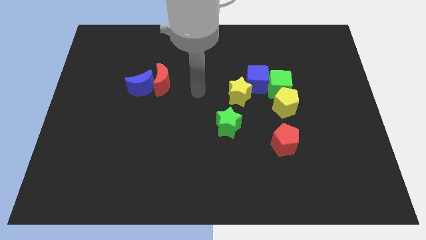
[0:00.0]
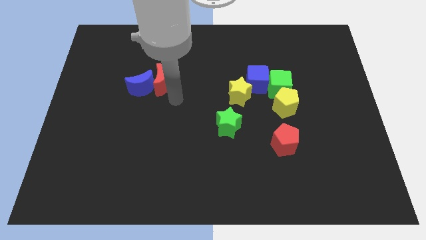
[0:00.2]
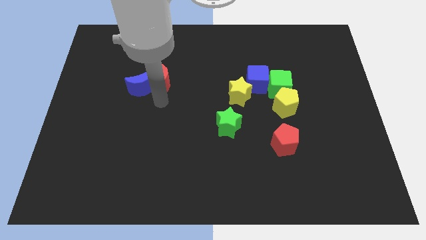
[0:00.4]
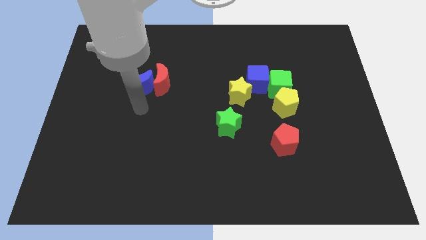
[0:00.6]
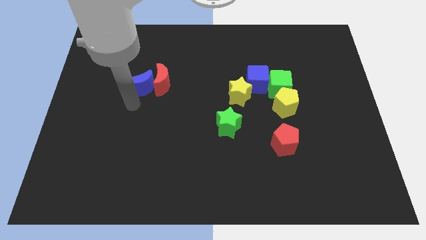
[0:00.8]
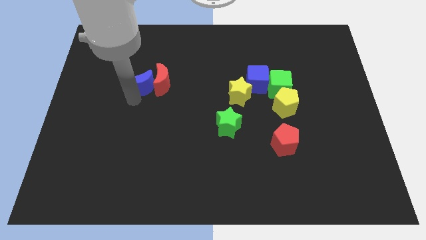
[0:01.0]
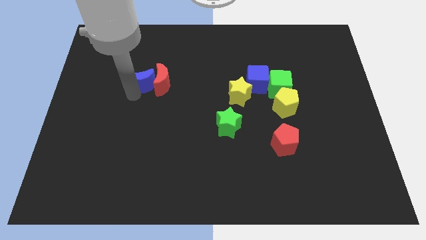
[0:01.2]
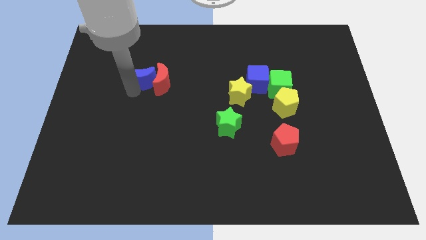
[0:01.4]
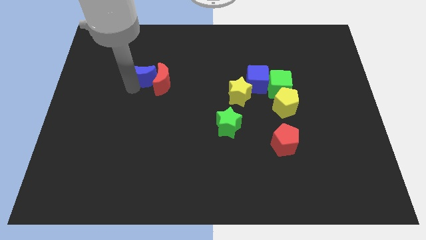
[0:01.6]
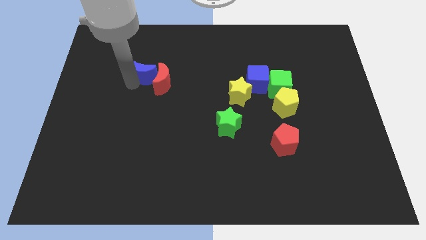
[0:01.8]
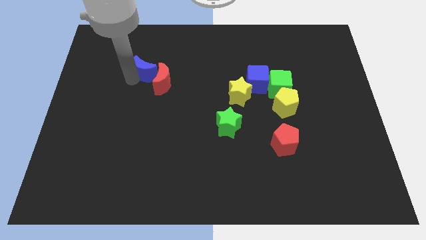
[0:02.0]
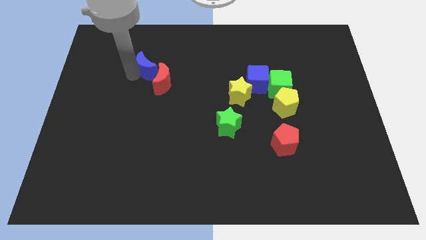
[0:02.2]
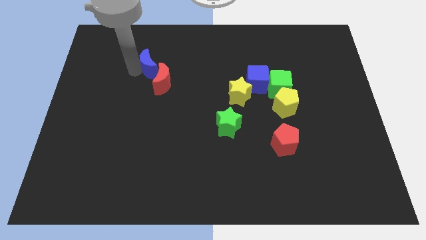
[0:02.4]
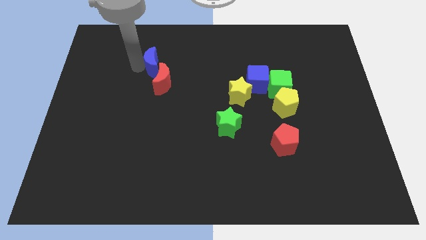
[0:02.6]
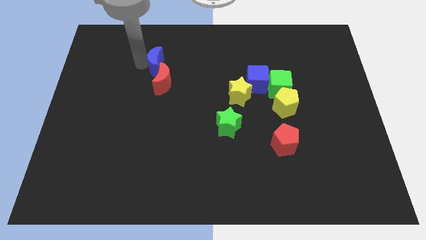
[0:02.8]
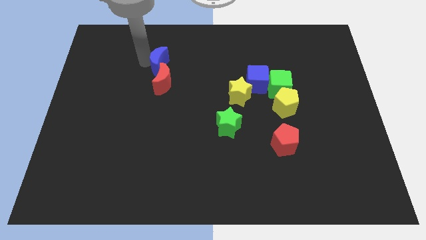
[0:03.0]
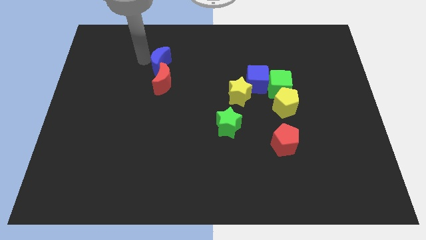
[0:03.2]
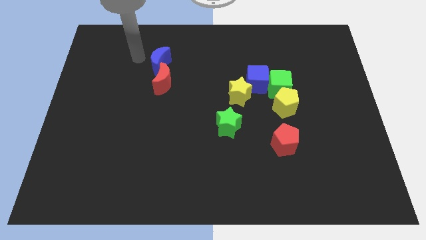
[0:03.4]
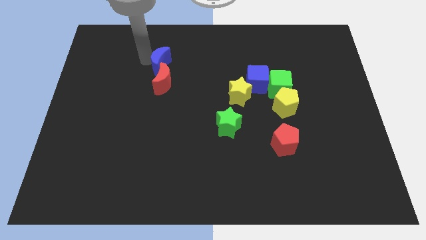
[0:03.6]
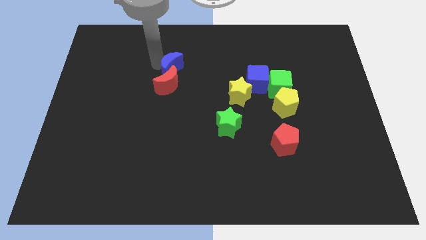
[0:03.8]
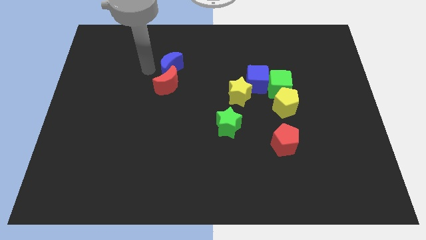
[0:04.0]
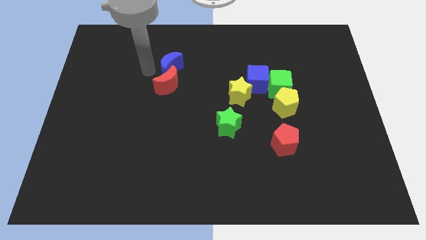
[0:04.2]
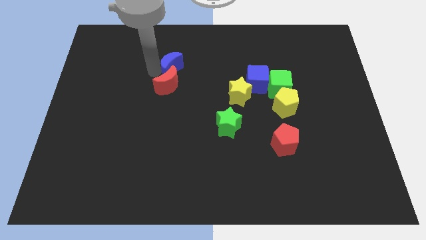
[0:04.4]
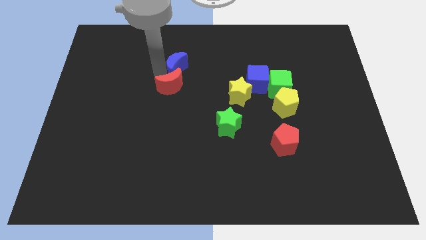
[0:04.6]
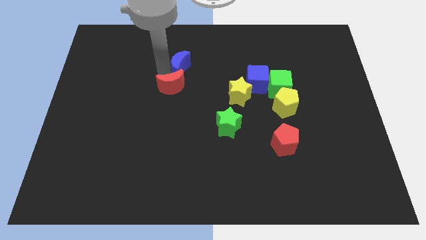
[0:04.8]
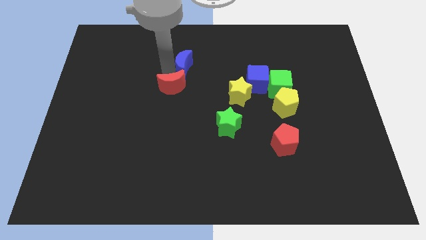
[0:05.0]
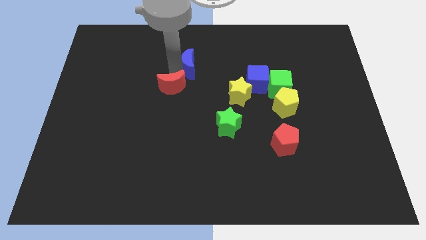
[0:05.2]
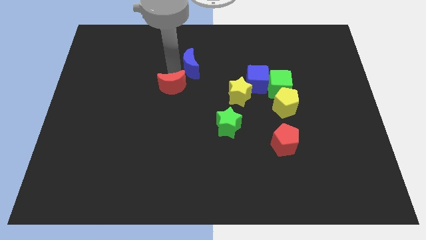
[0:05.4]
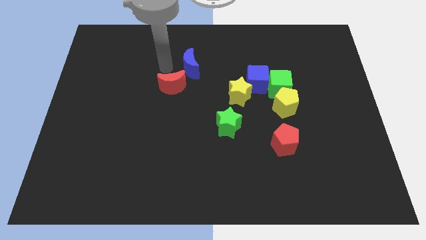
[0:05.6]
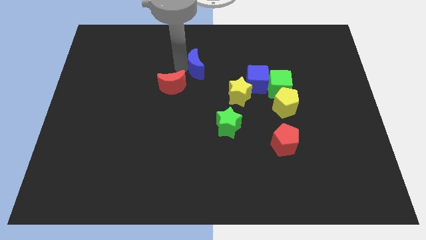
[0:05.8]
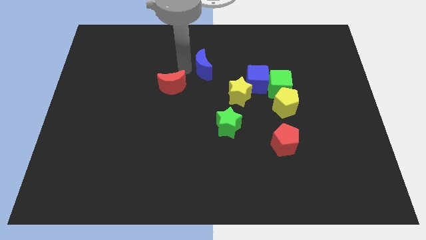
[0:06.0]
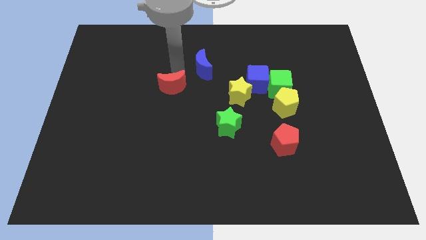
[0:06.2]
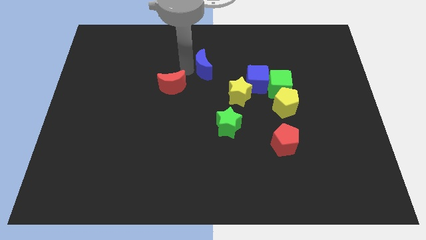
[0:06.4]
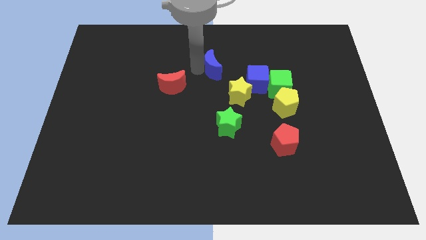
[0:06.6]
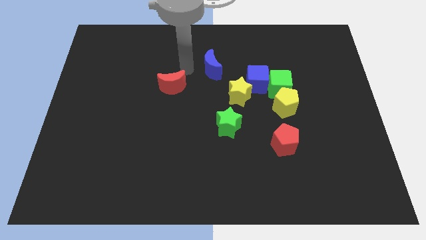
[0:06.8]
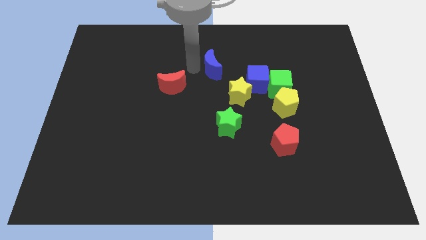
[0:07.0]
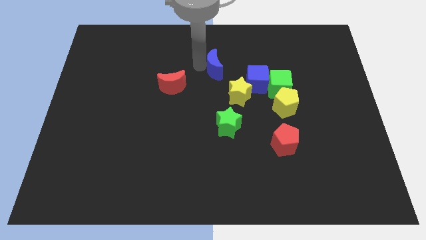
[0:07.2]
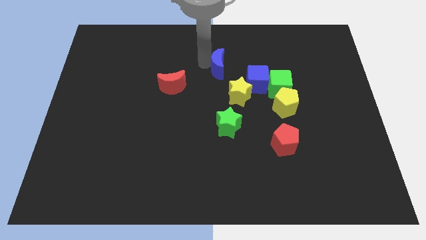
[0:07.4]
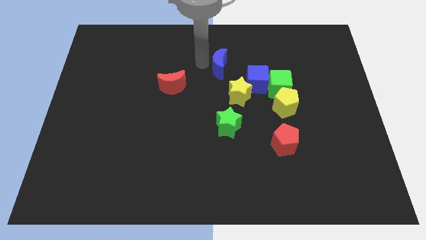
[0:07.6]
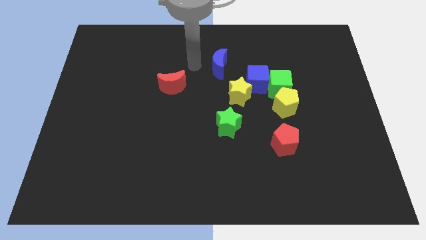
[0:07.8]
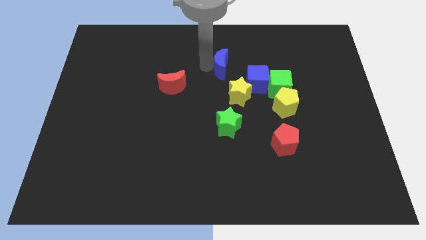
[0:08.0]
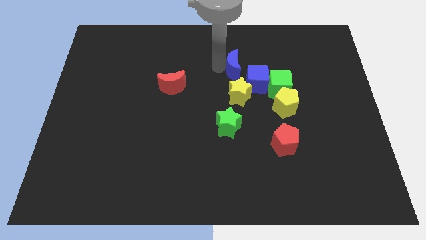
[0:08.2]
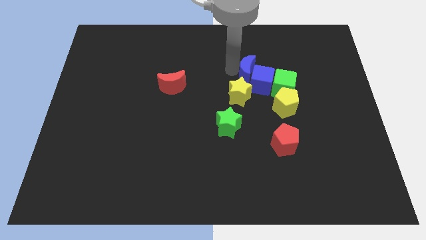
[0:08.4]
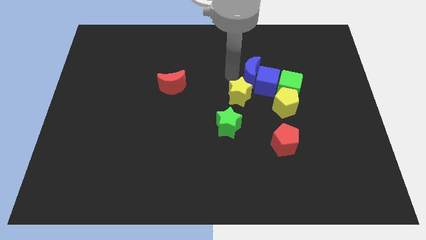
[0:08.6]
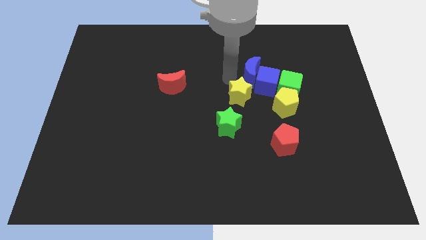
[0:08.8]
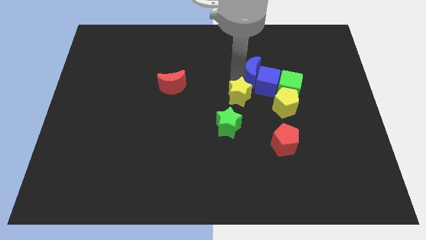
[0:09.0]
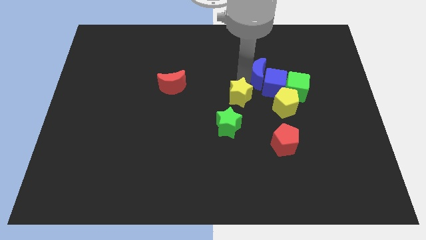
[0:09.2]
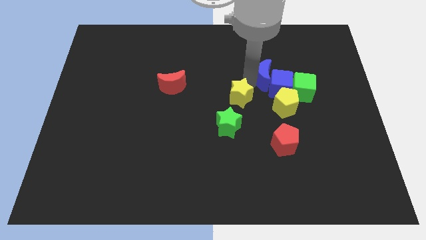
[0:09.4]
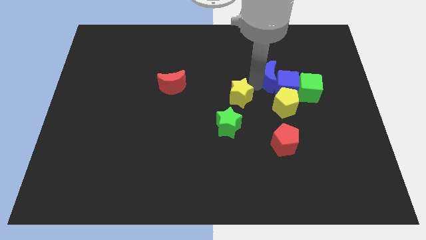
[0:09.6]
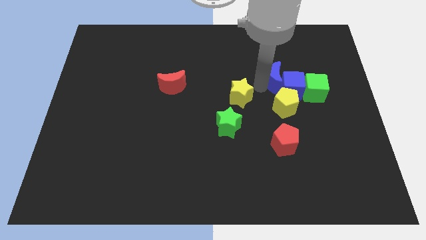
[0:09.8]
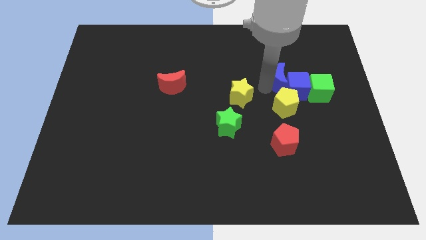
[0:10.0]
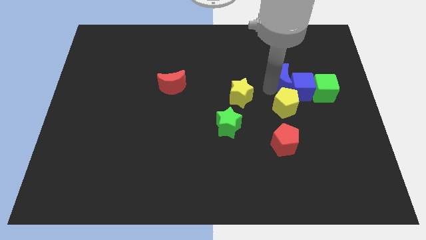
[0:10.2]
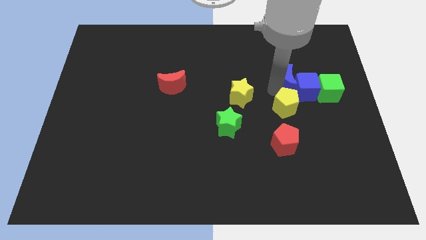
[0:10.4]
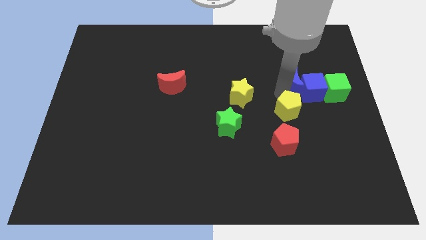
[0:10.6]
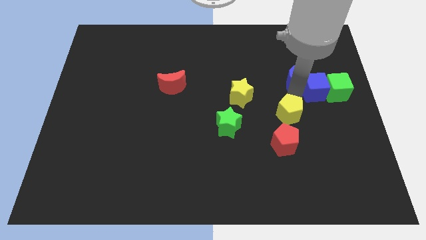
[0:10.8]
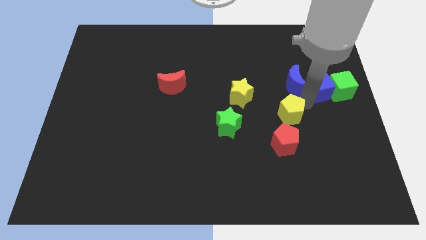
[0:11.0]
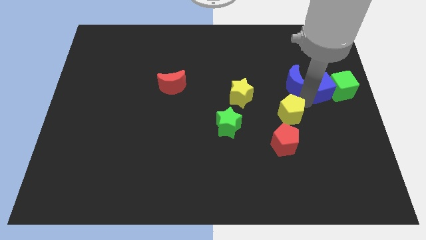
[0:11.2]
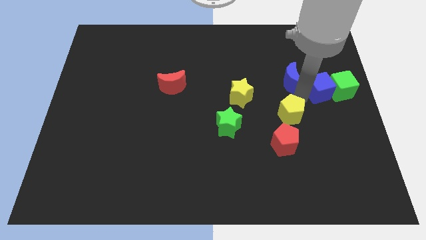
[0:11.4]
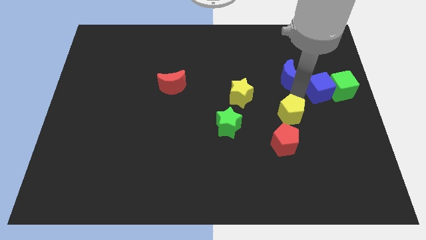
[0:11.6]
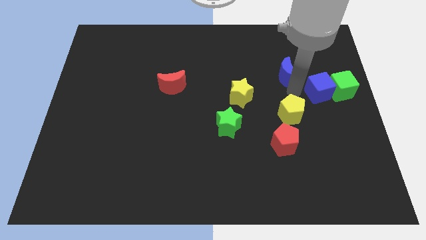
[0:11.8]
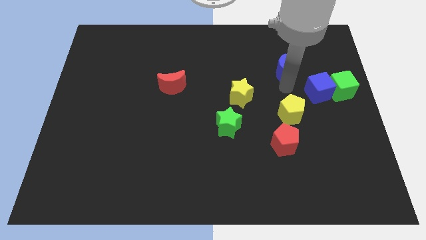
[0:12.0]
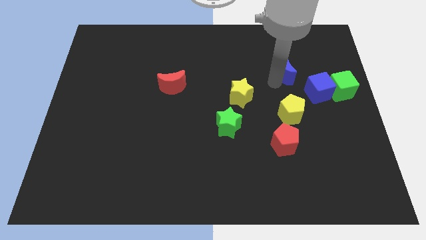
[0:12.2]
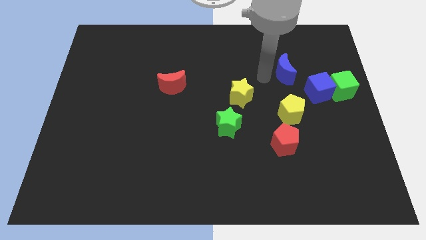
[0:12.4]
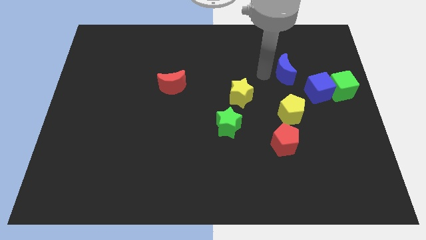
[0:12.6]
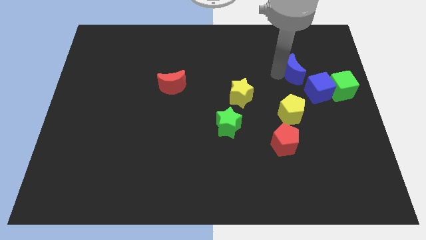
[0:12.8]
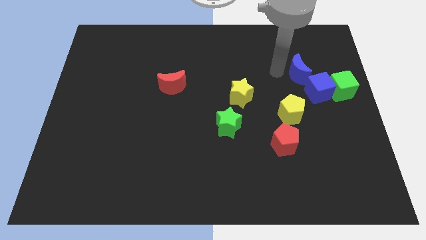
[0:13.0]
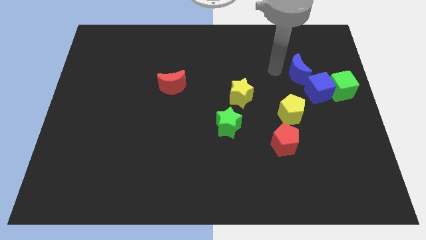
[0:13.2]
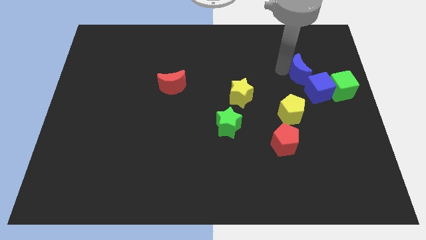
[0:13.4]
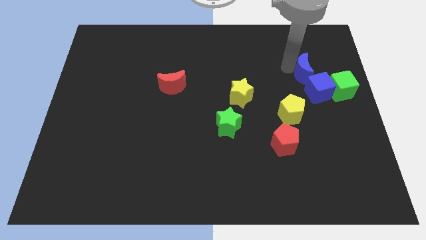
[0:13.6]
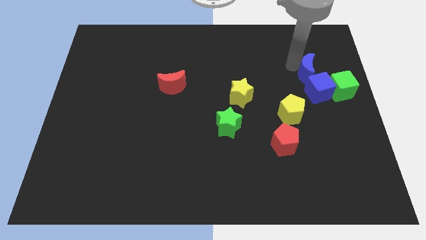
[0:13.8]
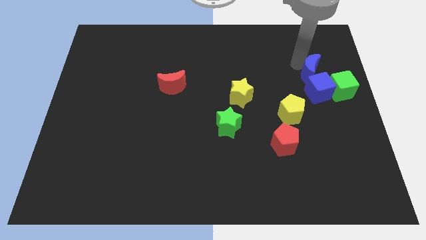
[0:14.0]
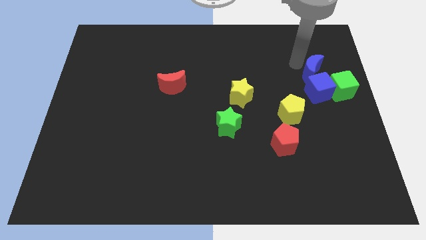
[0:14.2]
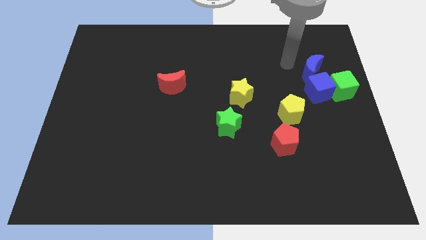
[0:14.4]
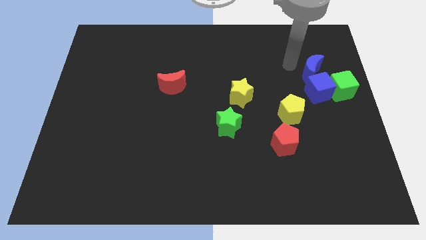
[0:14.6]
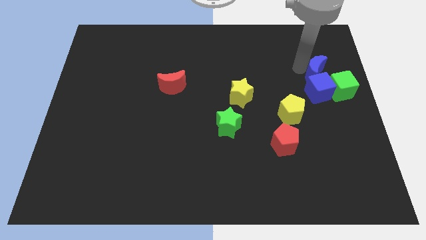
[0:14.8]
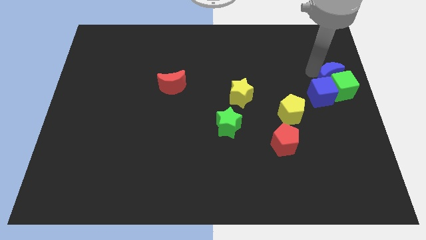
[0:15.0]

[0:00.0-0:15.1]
push the blue moon to the right side
